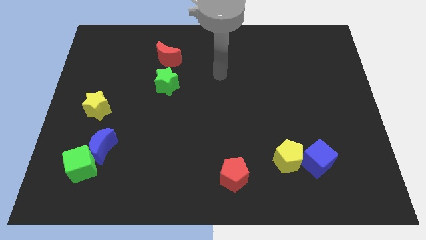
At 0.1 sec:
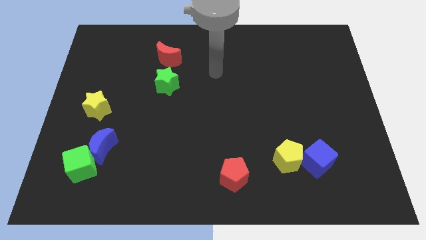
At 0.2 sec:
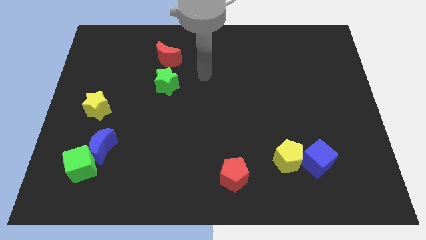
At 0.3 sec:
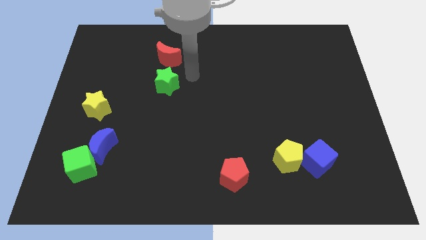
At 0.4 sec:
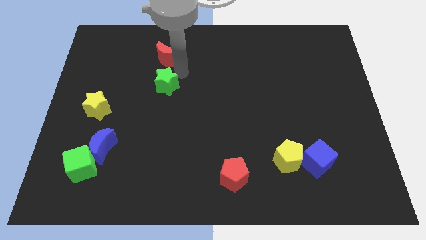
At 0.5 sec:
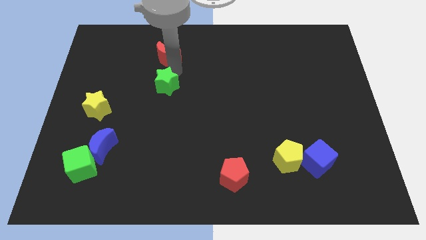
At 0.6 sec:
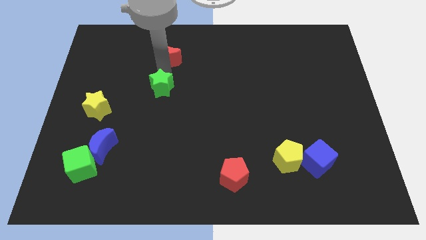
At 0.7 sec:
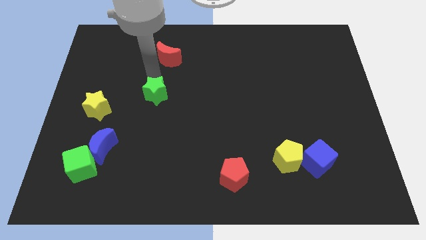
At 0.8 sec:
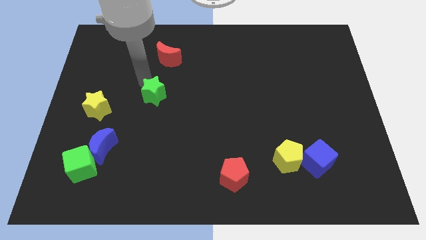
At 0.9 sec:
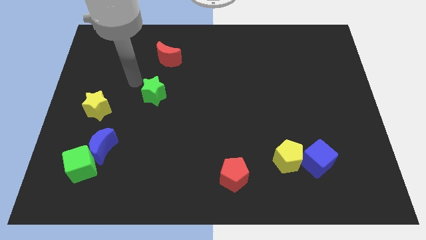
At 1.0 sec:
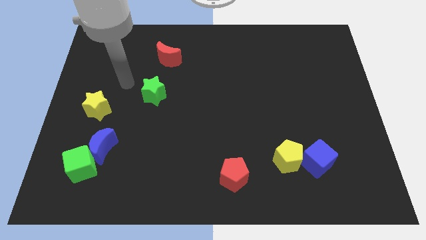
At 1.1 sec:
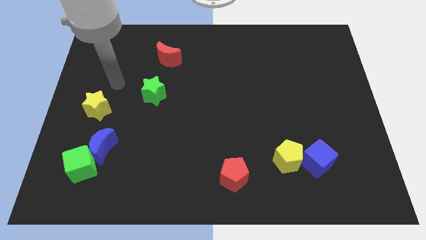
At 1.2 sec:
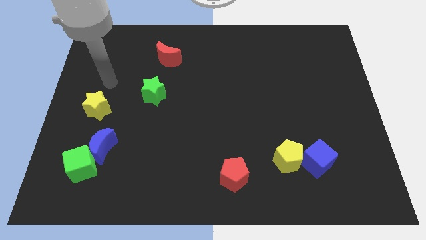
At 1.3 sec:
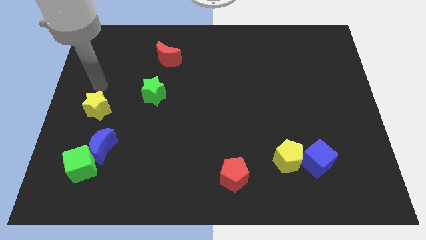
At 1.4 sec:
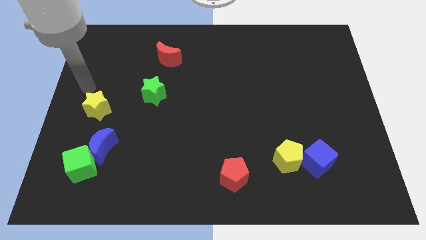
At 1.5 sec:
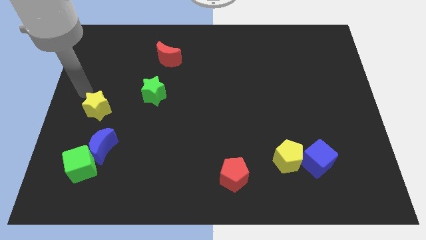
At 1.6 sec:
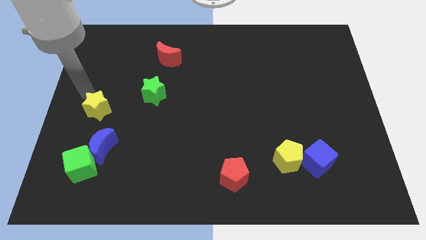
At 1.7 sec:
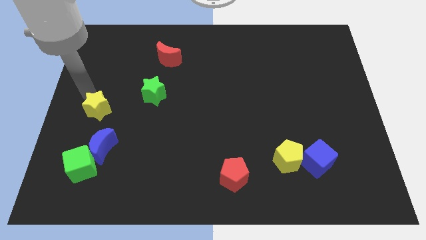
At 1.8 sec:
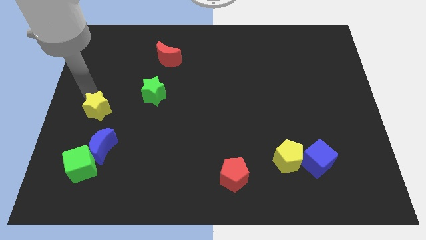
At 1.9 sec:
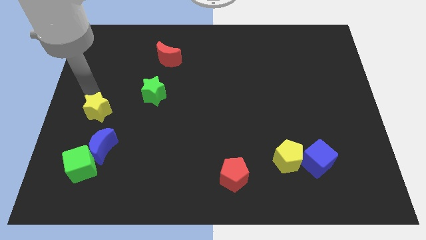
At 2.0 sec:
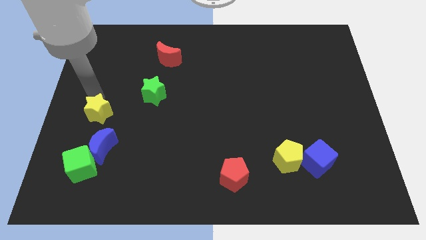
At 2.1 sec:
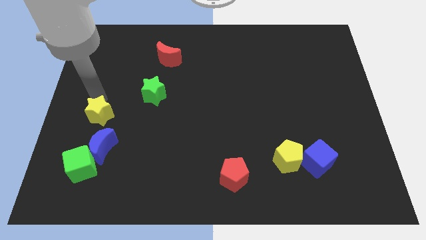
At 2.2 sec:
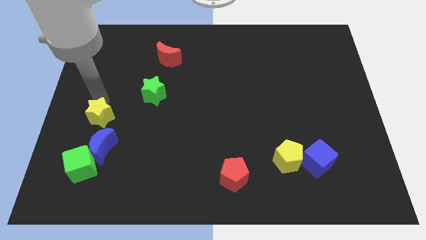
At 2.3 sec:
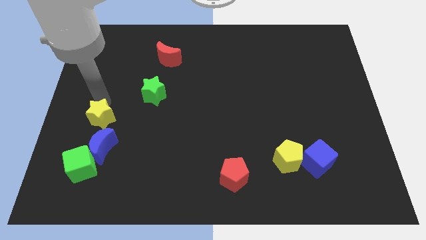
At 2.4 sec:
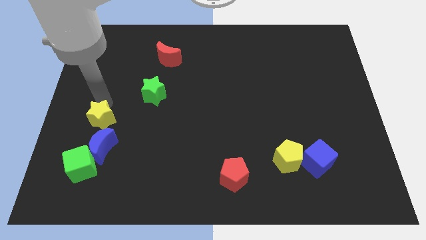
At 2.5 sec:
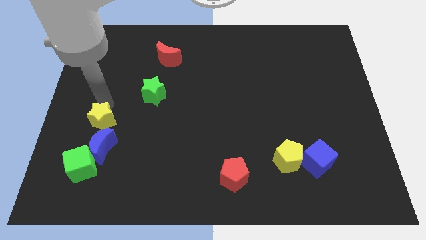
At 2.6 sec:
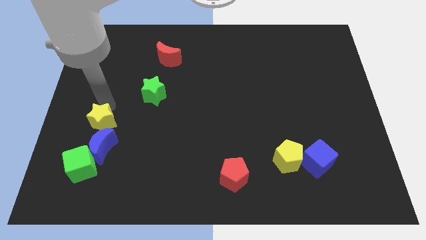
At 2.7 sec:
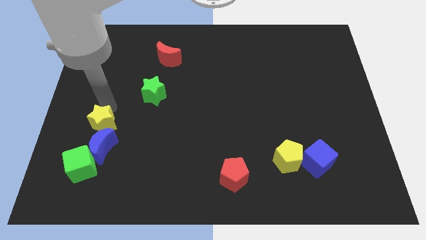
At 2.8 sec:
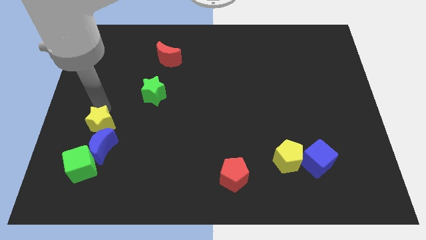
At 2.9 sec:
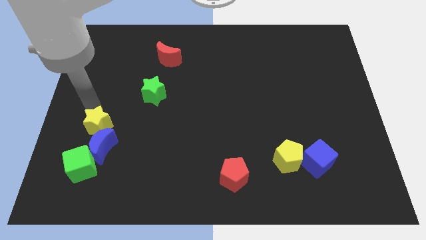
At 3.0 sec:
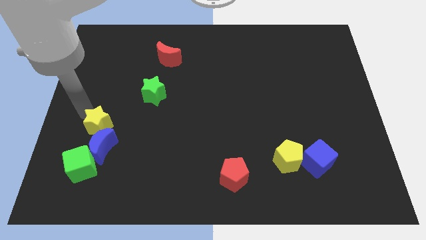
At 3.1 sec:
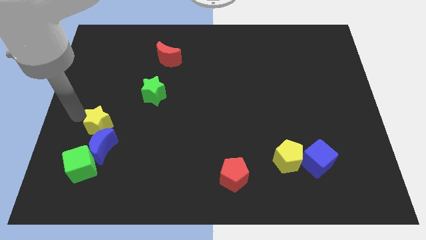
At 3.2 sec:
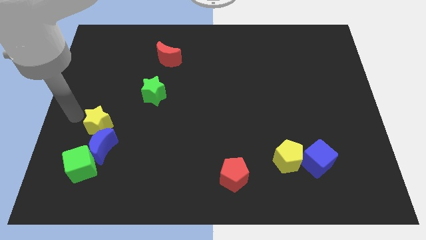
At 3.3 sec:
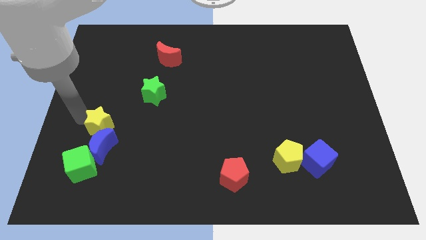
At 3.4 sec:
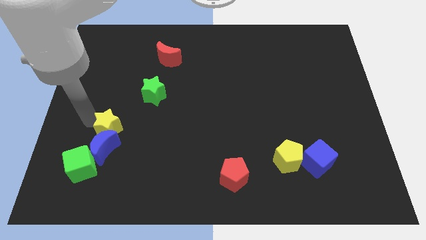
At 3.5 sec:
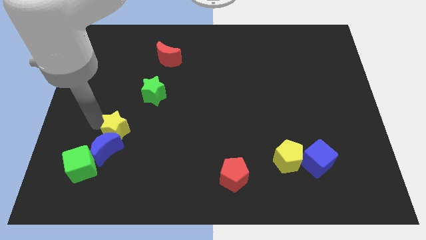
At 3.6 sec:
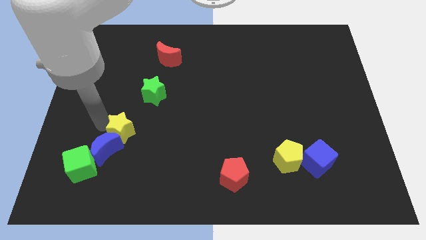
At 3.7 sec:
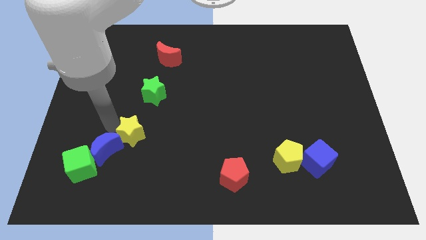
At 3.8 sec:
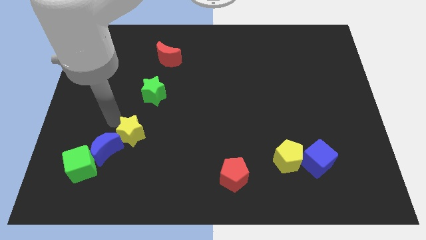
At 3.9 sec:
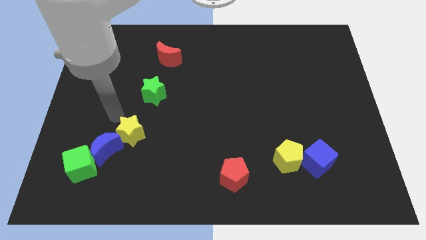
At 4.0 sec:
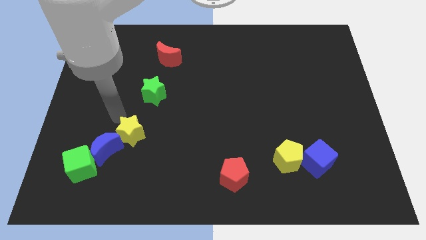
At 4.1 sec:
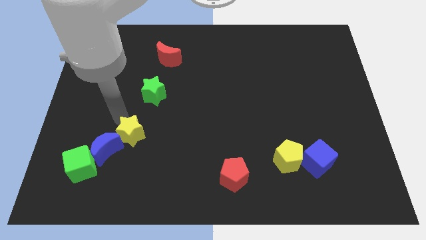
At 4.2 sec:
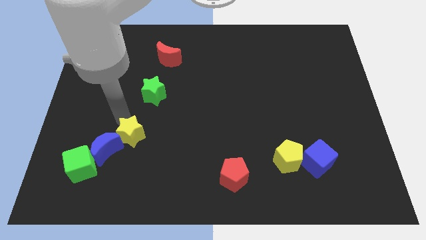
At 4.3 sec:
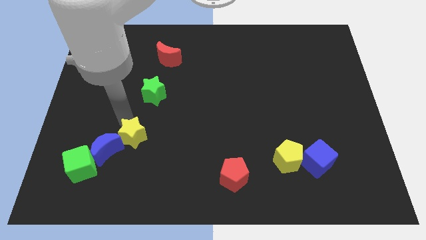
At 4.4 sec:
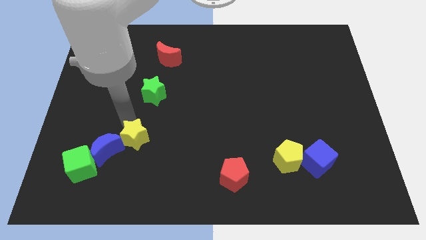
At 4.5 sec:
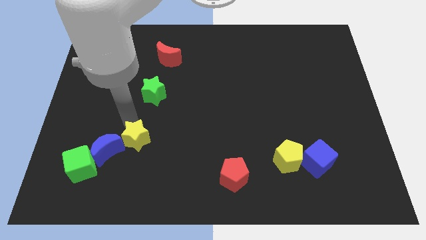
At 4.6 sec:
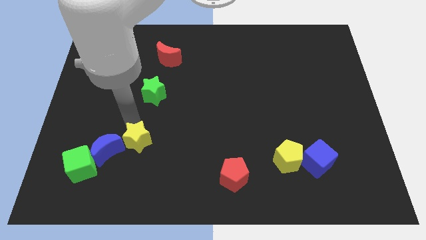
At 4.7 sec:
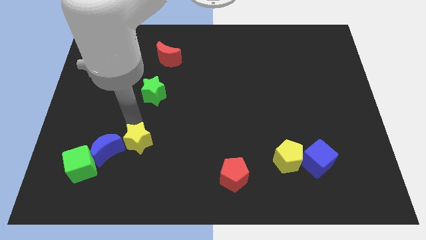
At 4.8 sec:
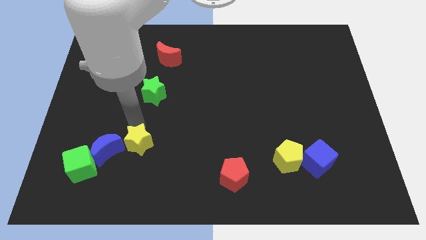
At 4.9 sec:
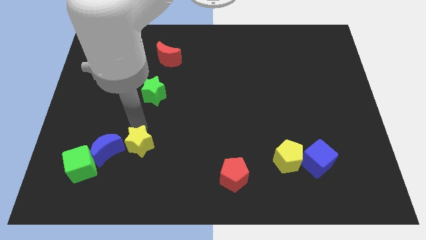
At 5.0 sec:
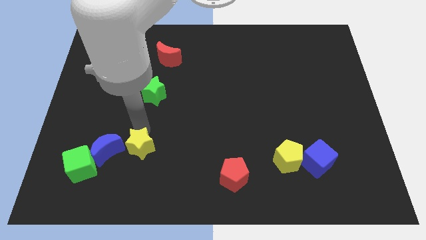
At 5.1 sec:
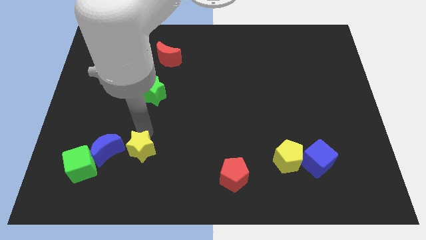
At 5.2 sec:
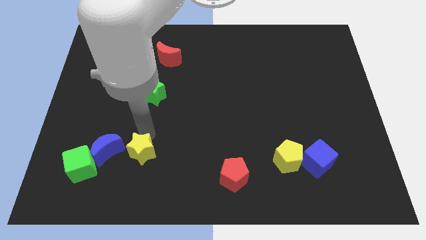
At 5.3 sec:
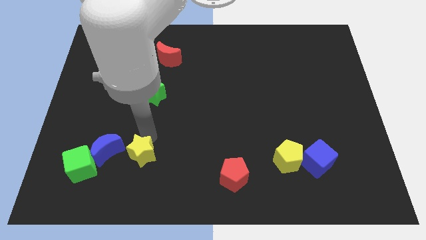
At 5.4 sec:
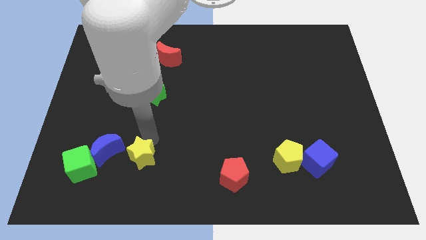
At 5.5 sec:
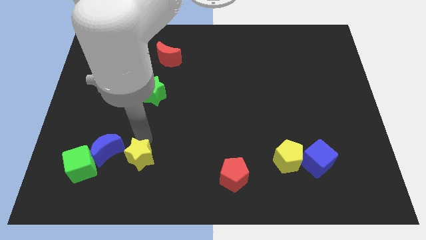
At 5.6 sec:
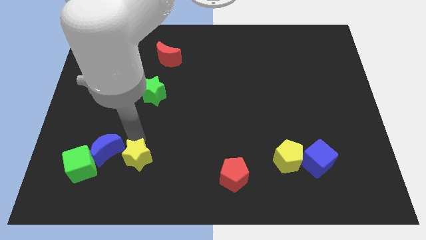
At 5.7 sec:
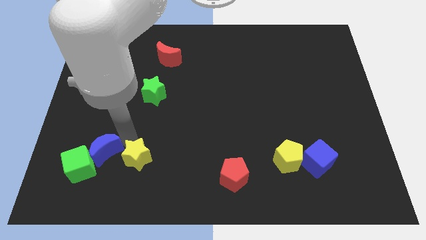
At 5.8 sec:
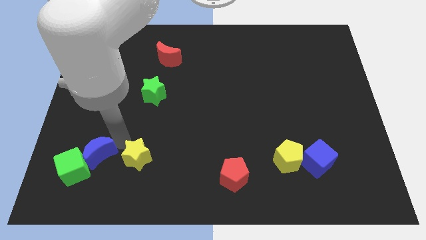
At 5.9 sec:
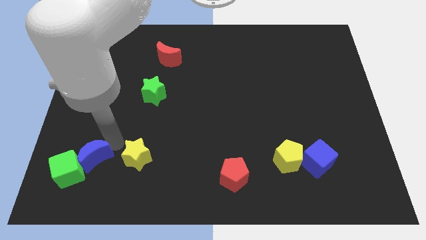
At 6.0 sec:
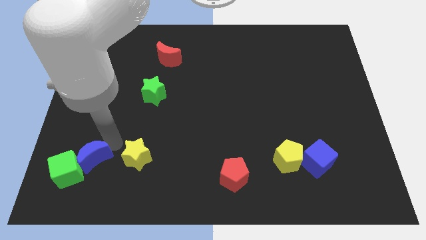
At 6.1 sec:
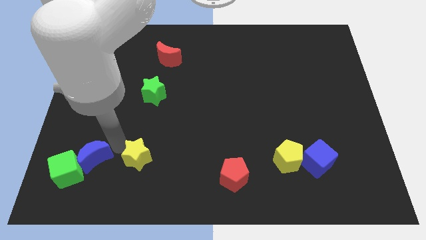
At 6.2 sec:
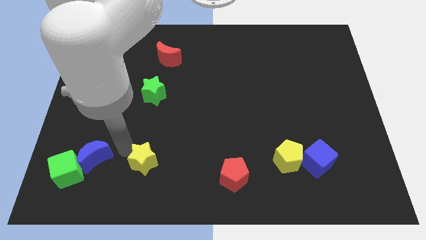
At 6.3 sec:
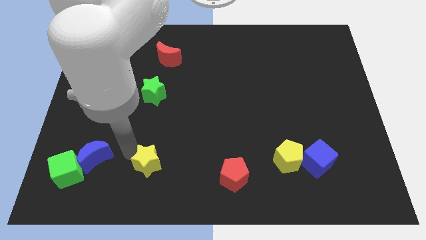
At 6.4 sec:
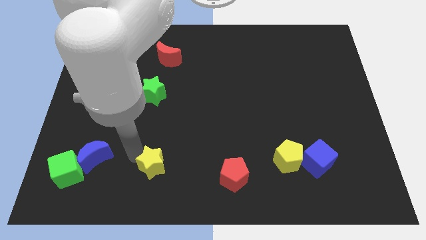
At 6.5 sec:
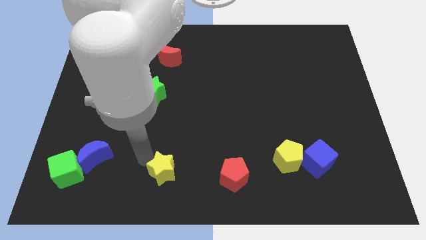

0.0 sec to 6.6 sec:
put the yellow star to the bottom side
